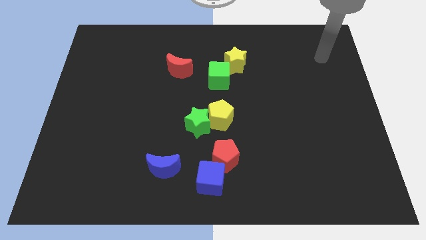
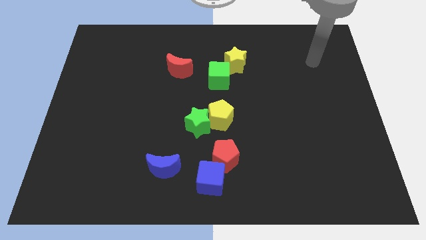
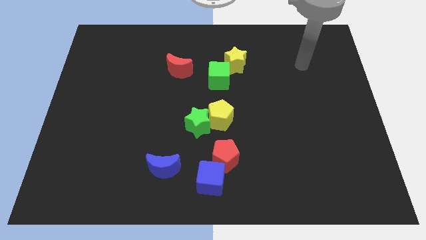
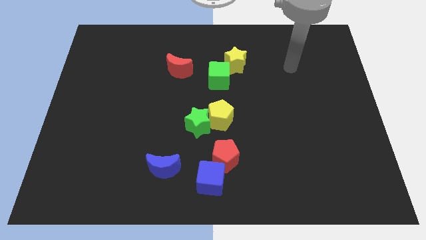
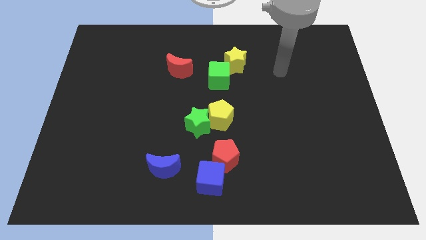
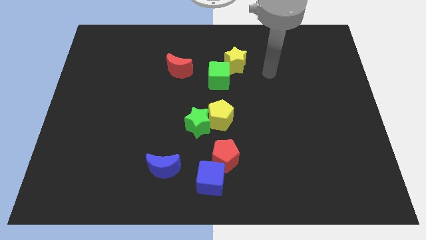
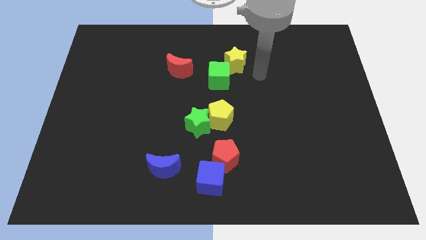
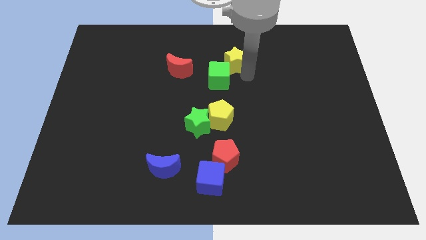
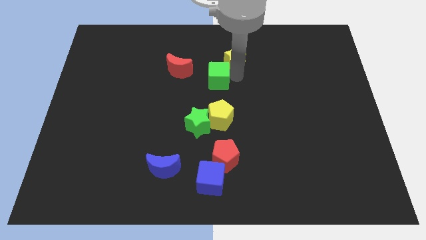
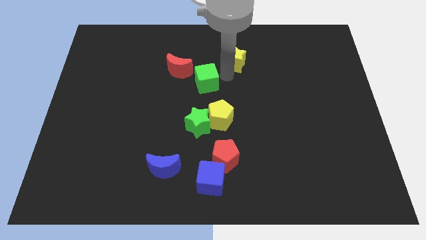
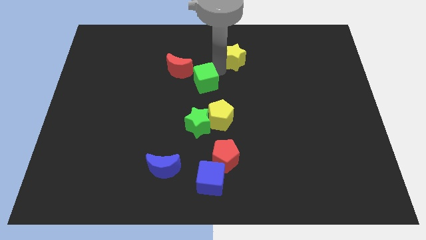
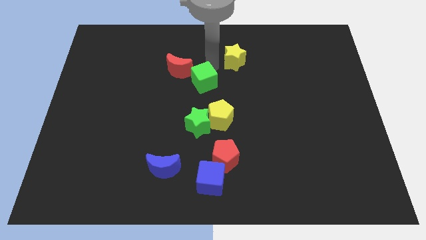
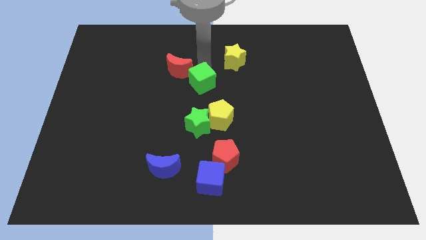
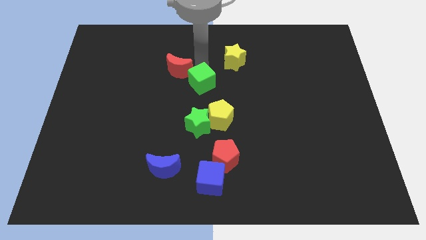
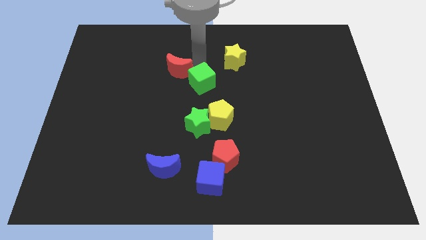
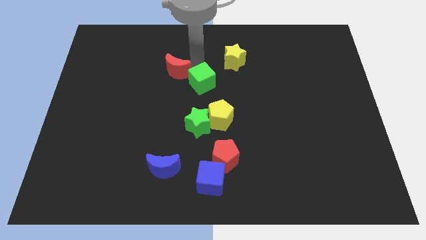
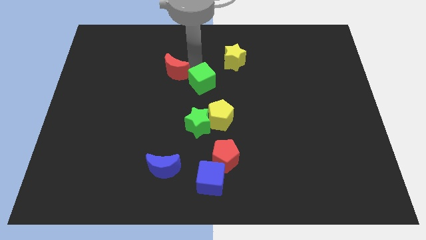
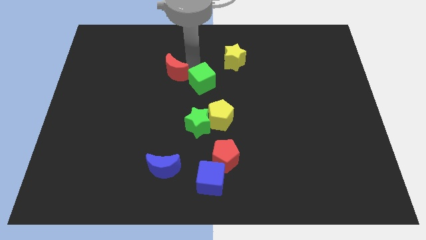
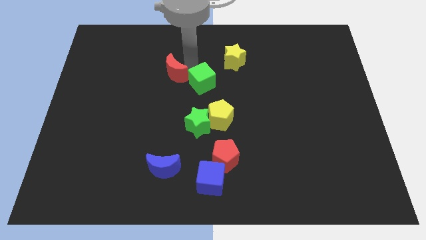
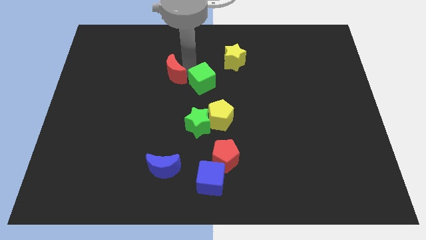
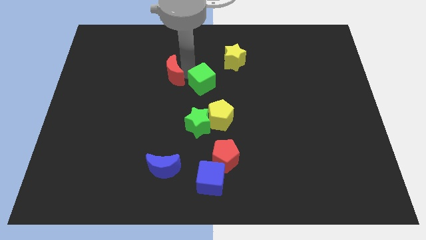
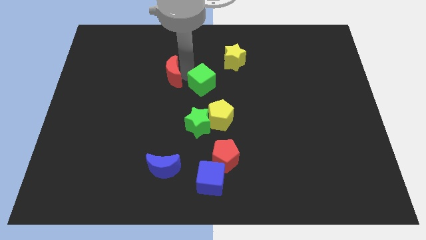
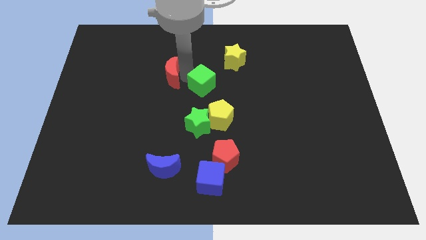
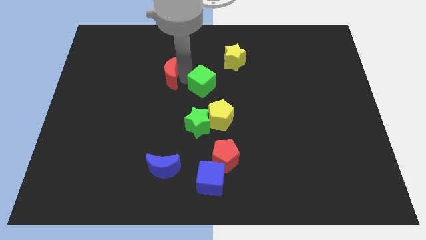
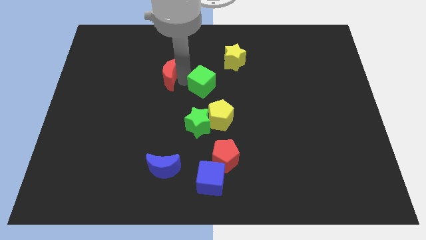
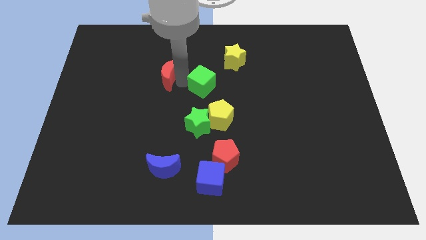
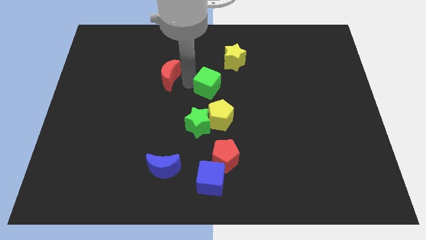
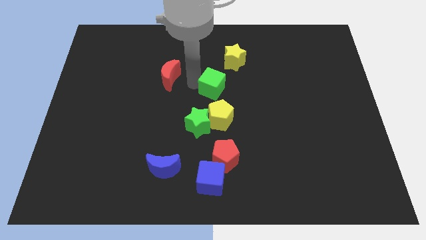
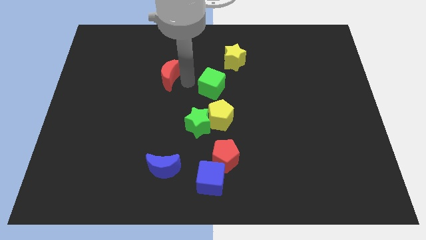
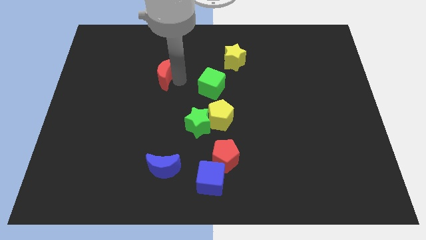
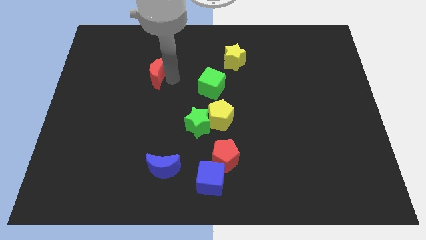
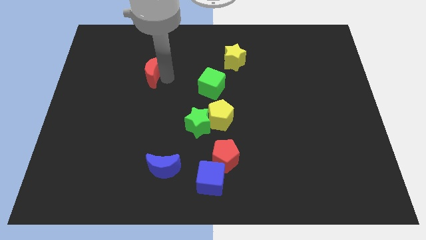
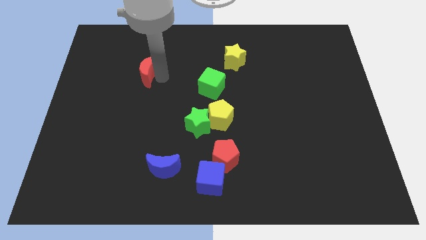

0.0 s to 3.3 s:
move the red moon left a little bit

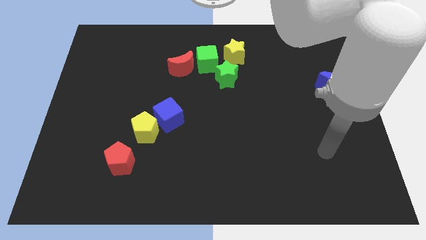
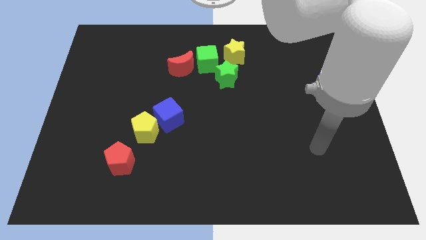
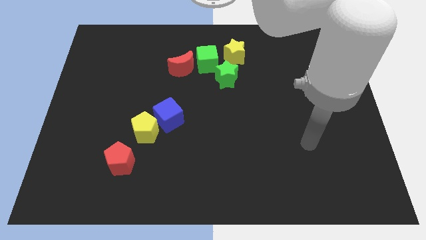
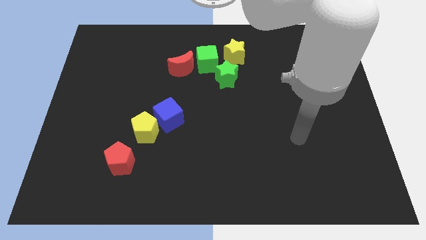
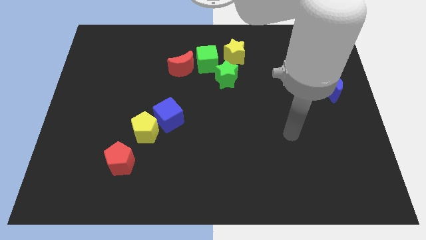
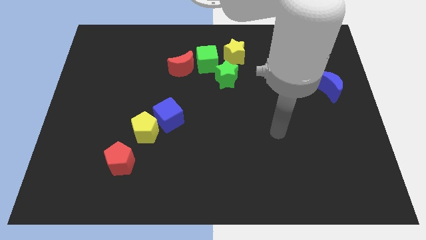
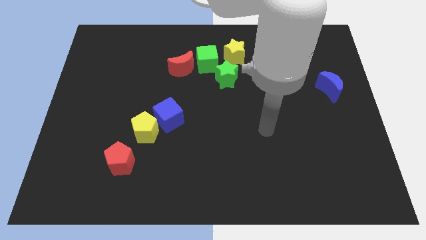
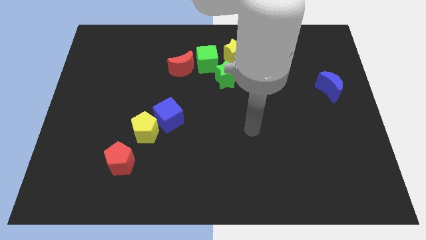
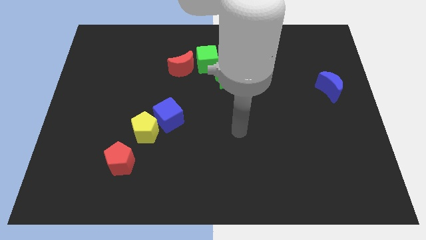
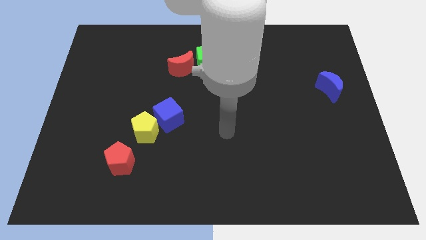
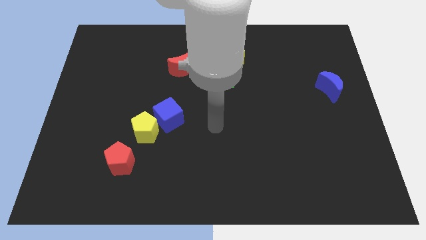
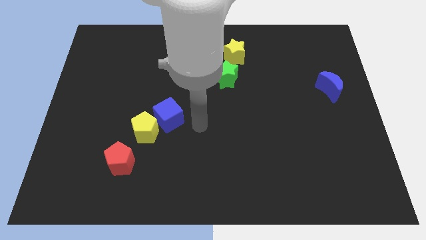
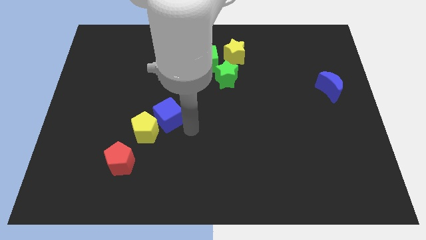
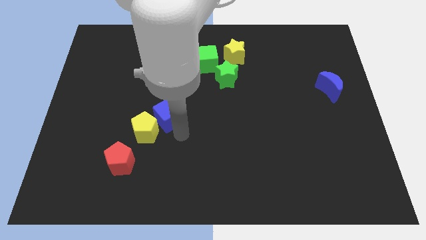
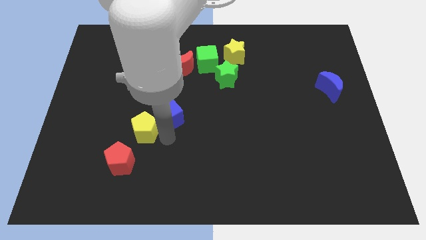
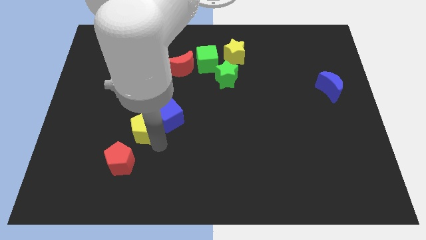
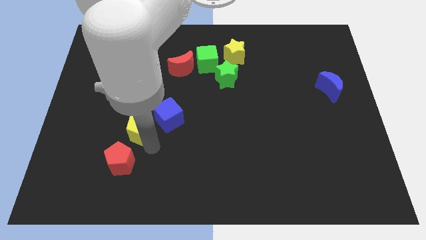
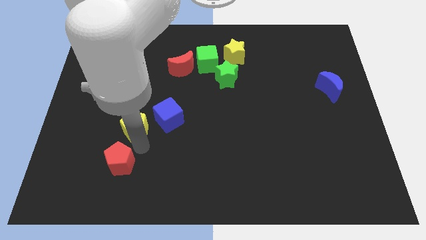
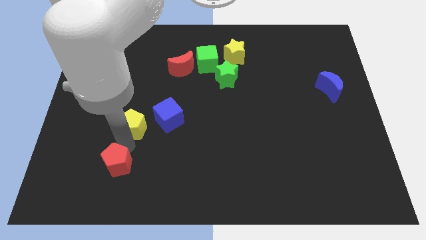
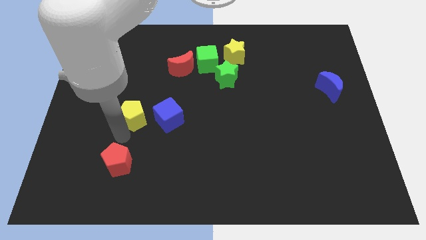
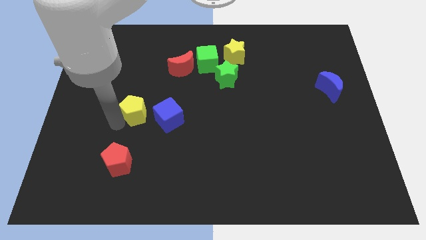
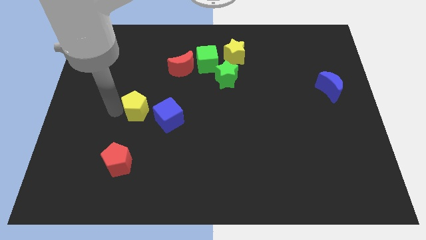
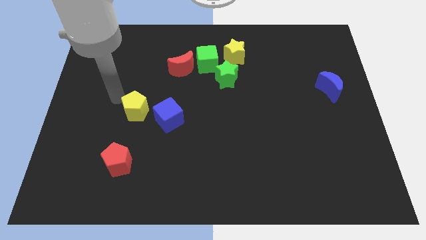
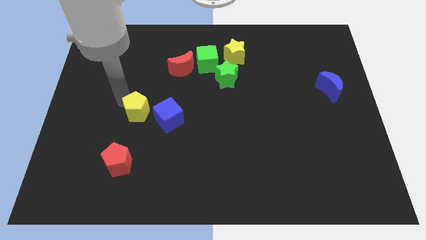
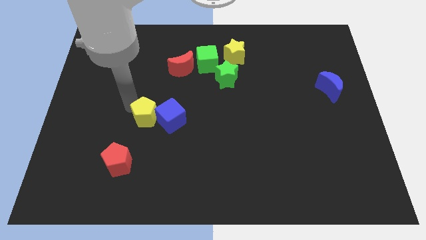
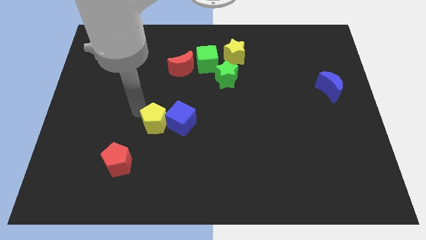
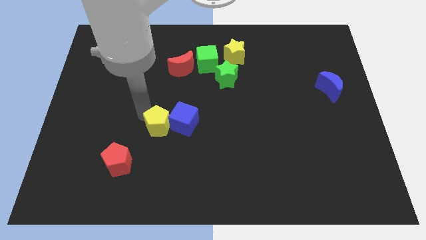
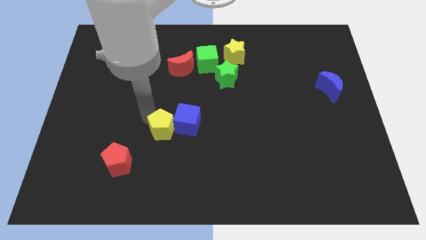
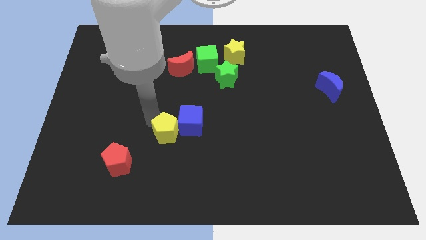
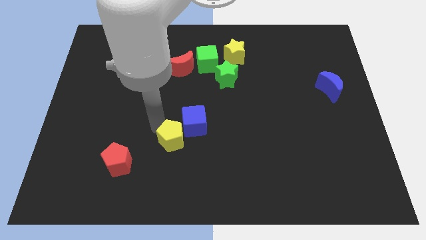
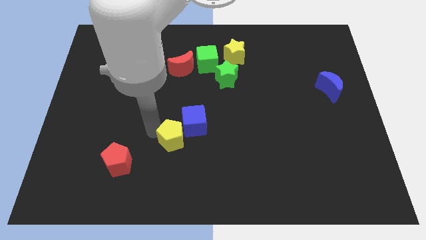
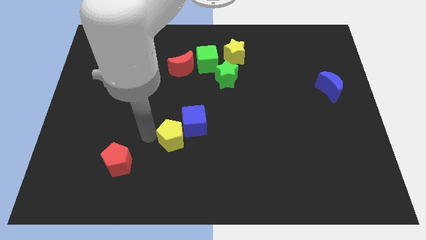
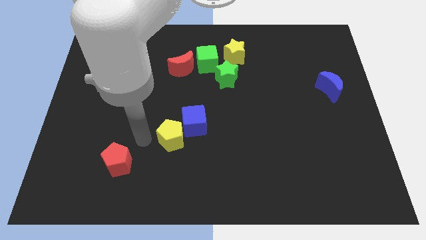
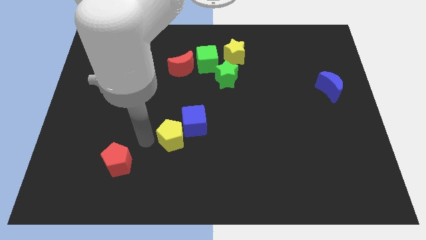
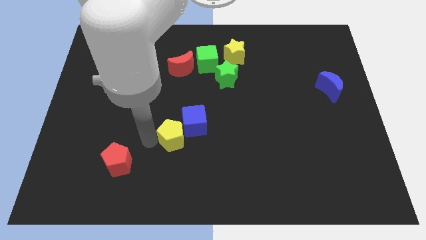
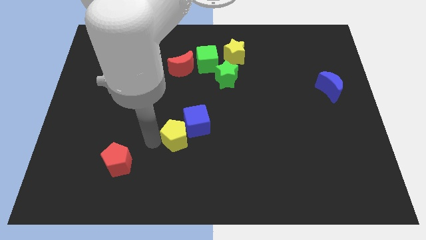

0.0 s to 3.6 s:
slightly move the yellow pentagon to the right

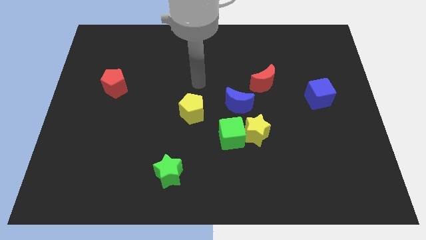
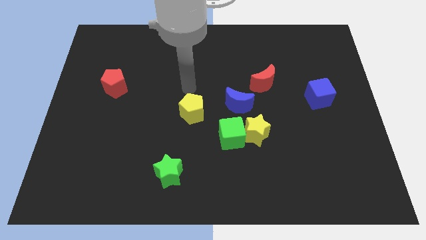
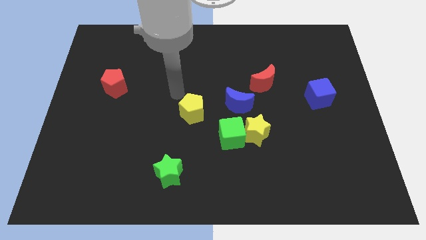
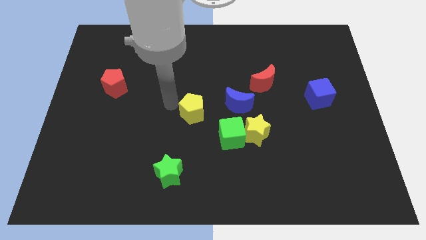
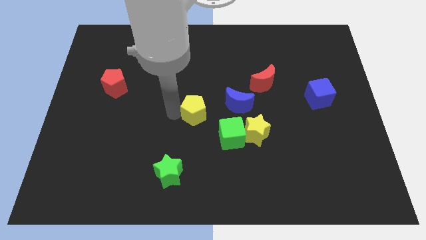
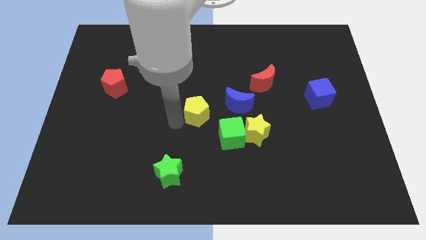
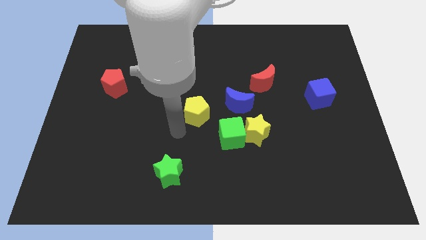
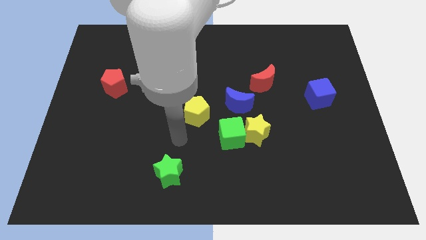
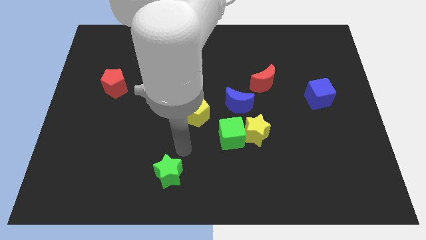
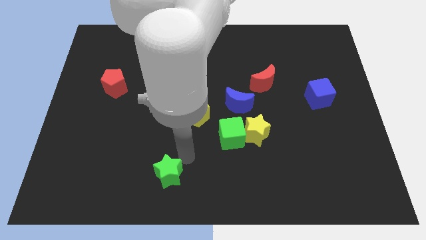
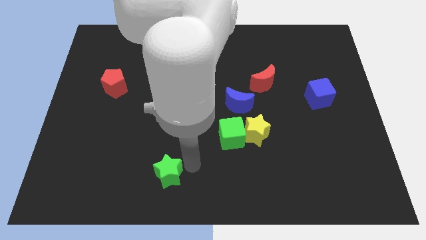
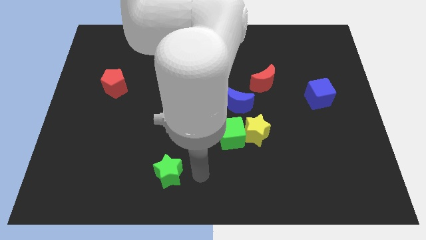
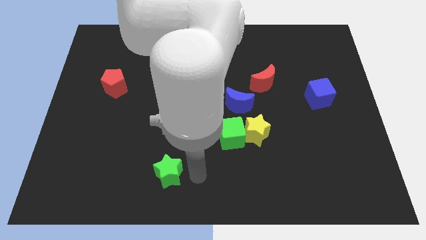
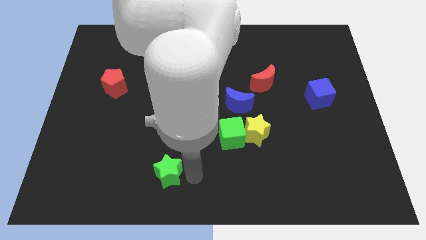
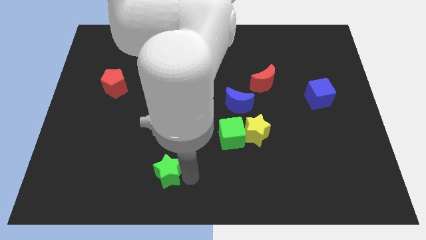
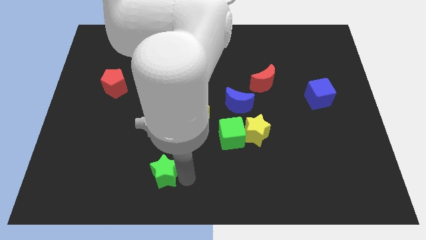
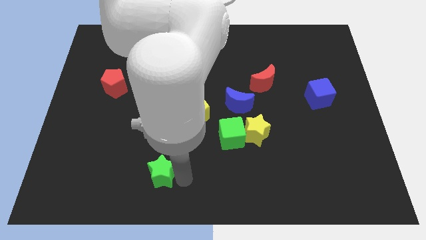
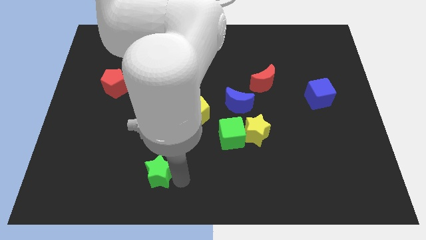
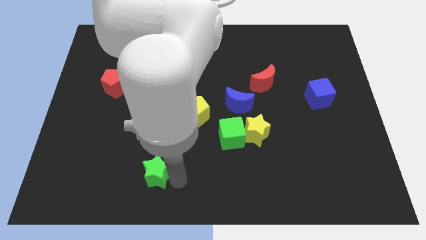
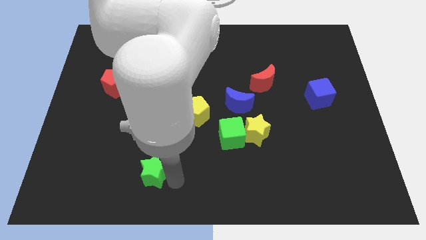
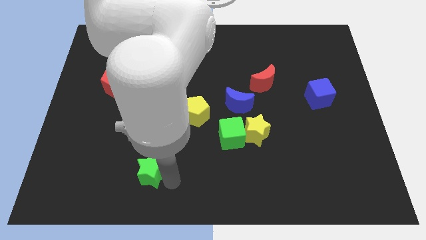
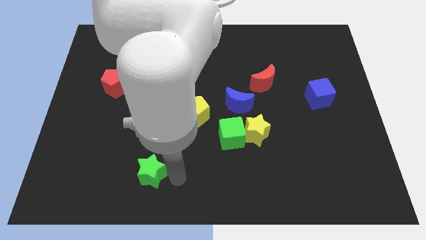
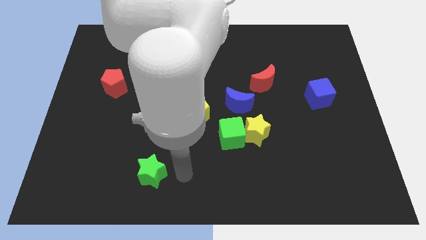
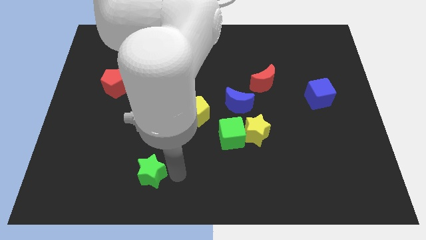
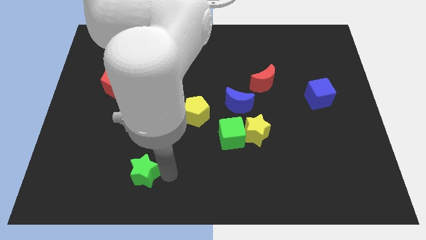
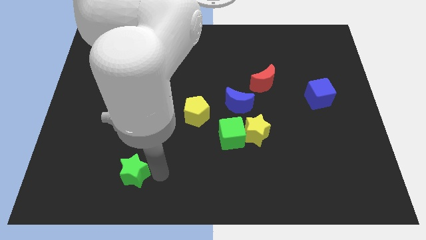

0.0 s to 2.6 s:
move the green star to the left somewhat
